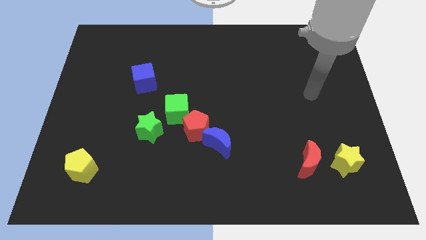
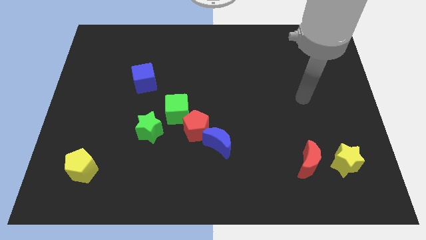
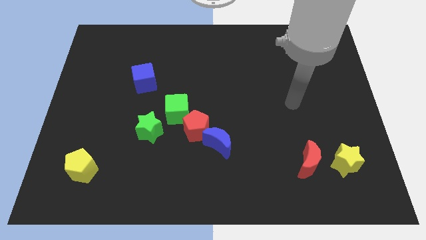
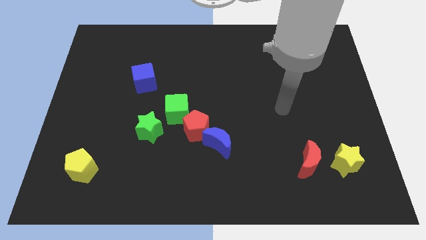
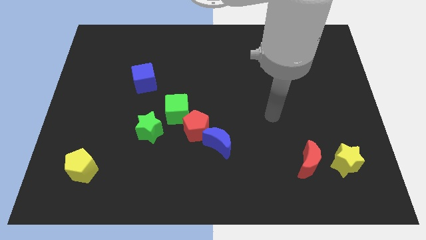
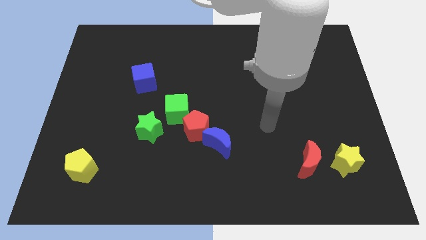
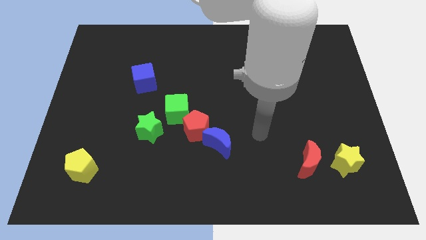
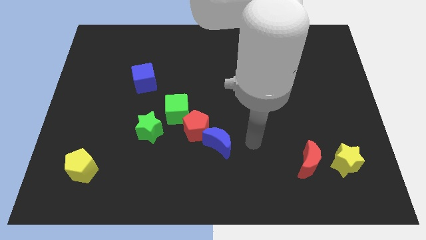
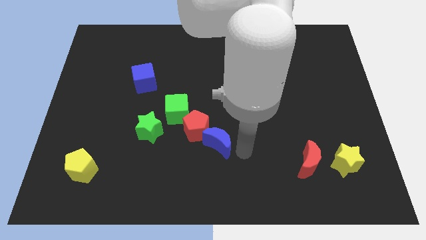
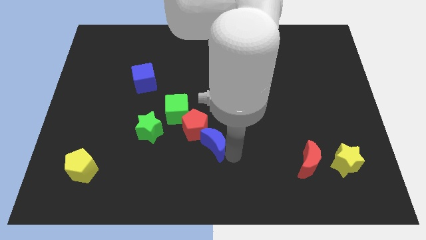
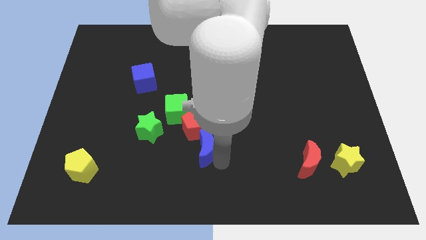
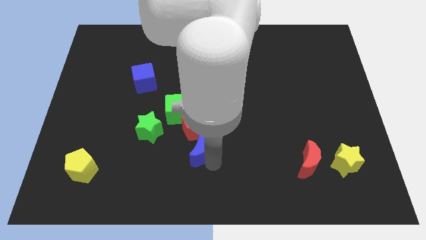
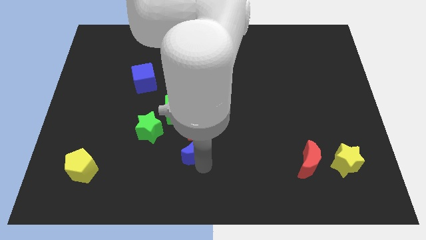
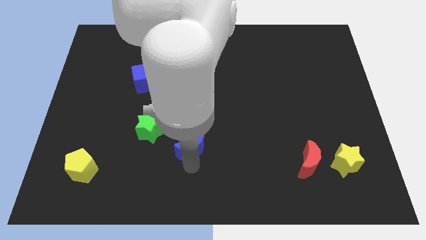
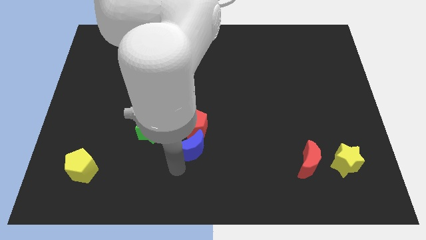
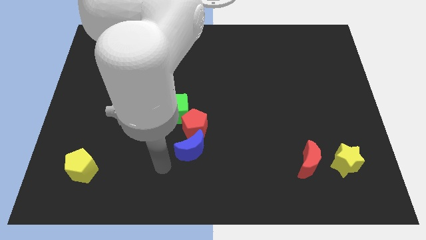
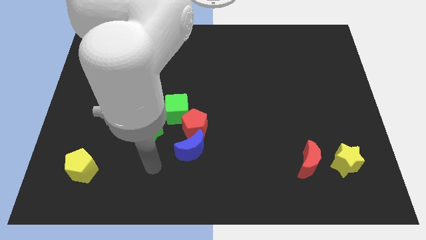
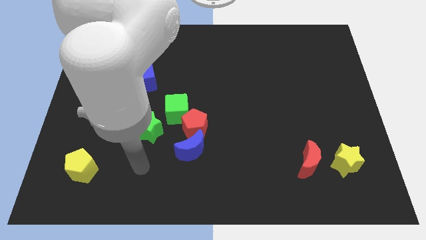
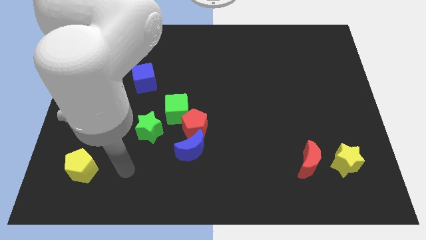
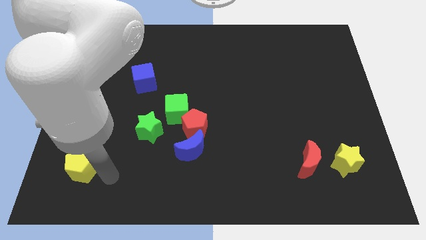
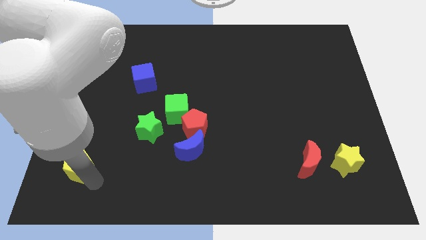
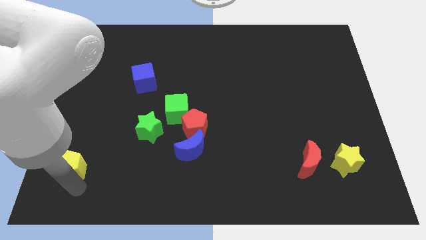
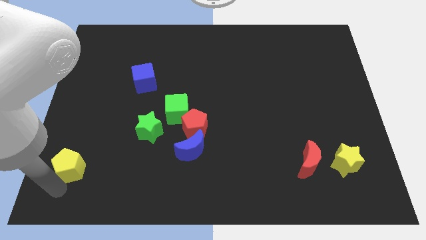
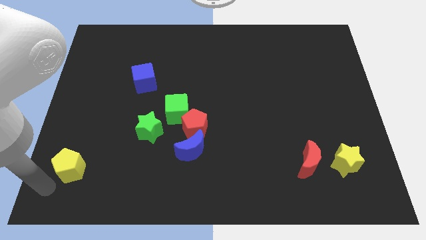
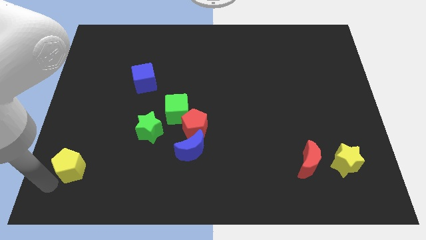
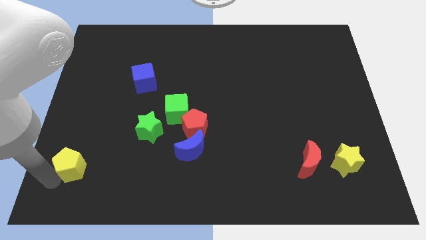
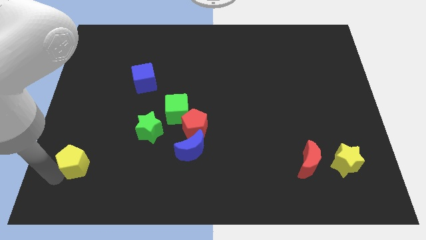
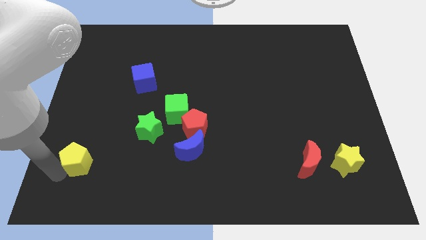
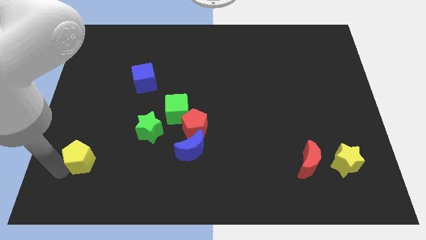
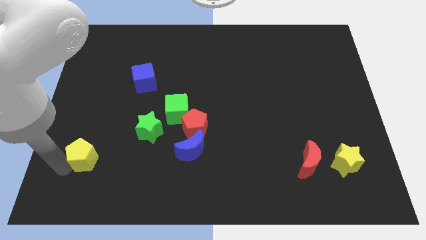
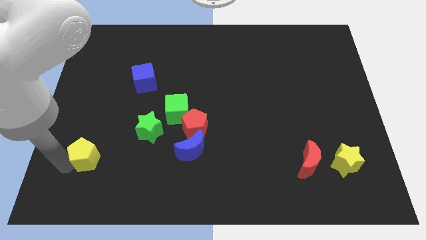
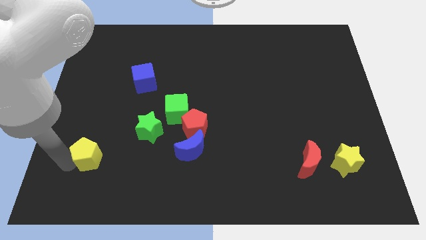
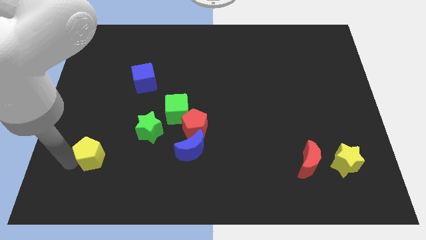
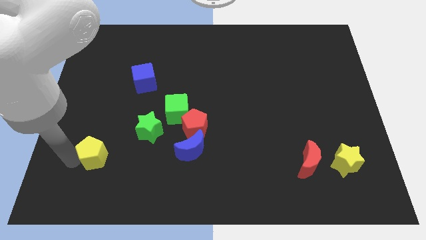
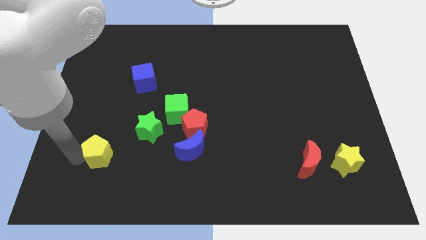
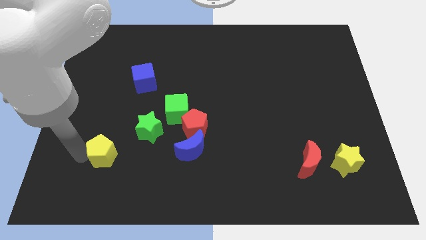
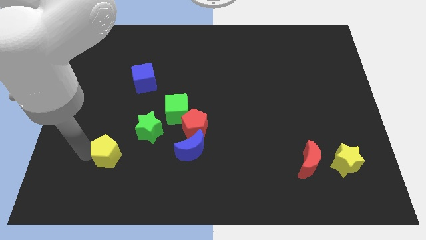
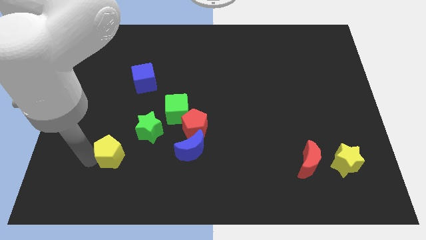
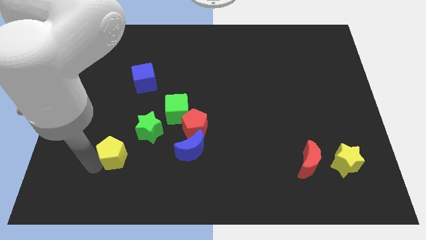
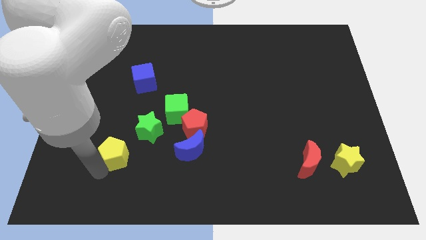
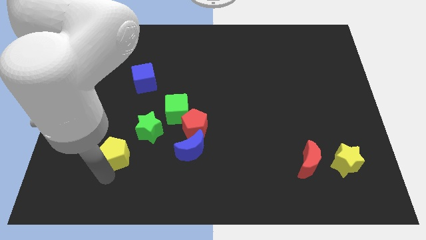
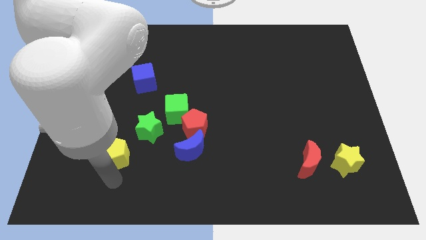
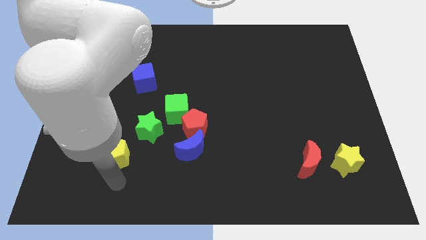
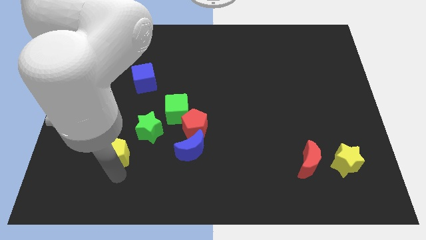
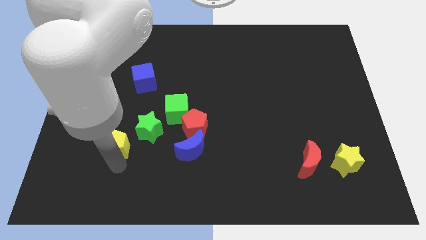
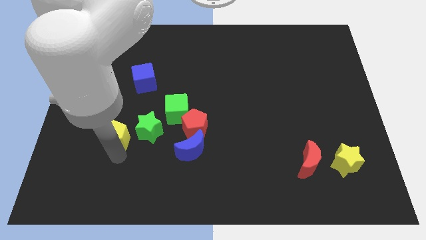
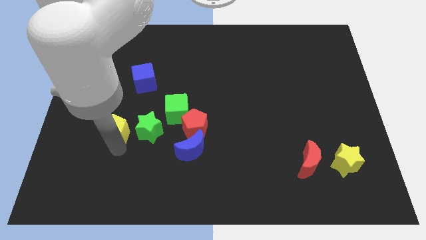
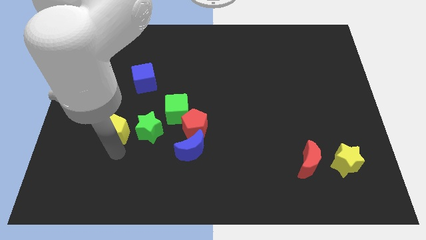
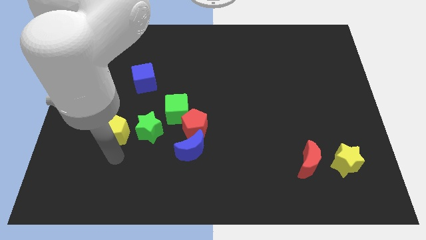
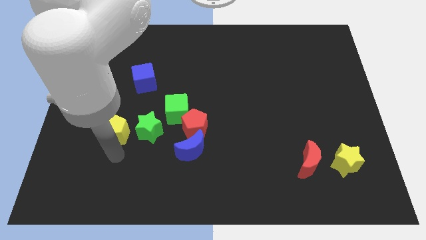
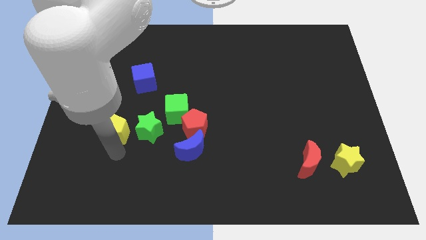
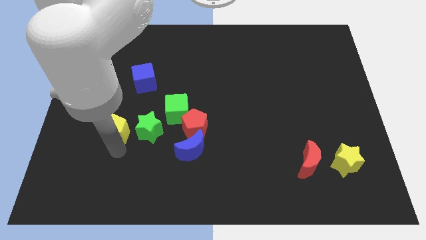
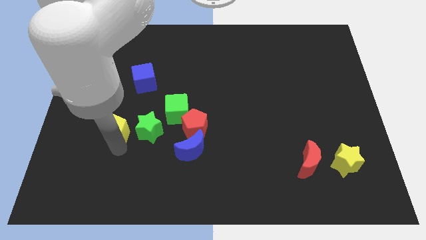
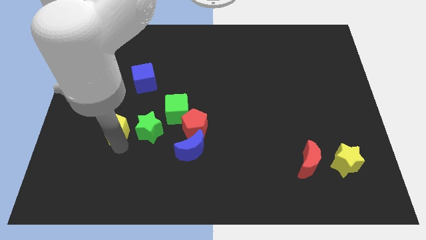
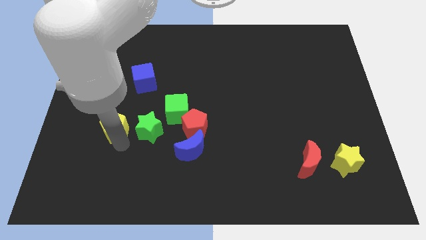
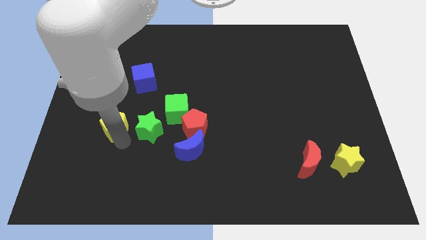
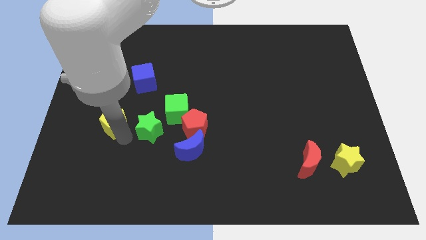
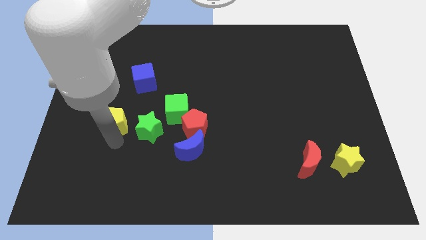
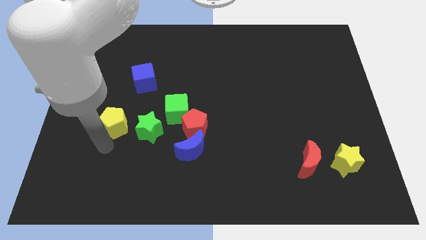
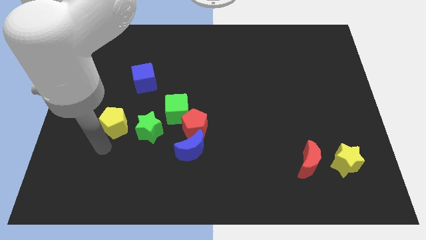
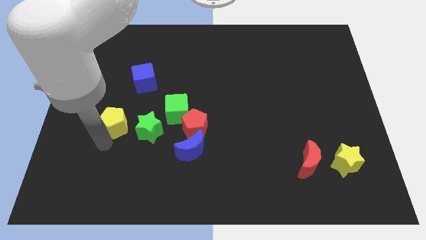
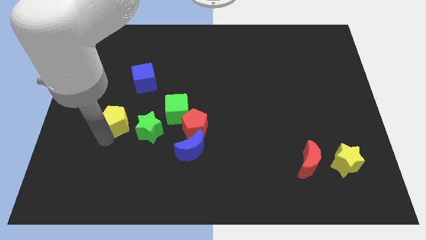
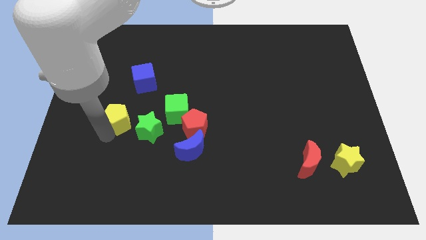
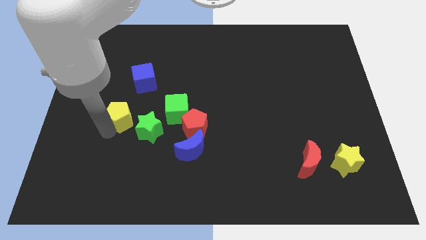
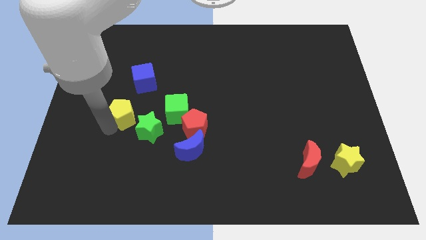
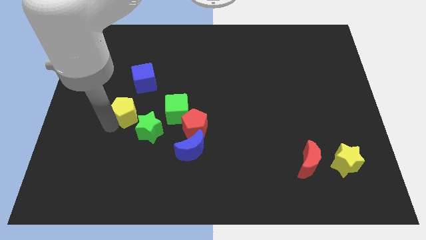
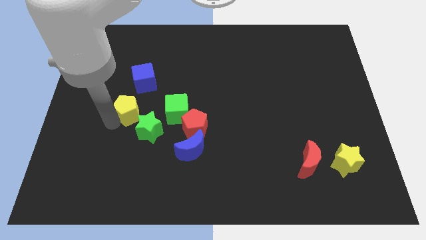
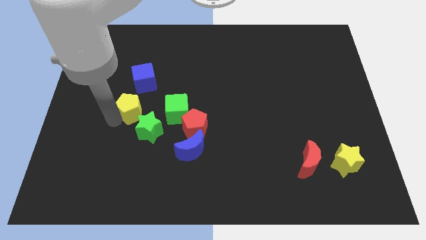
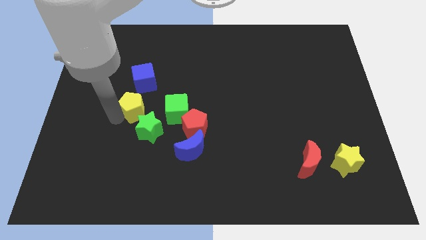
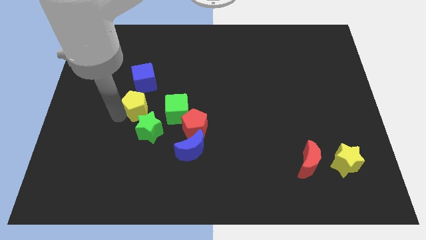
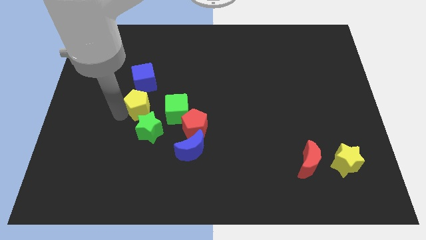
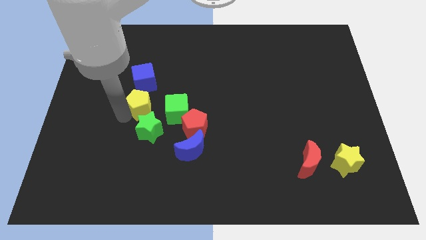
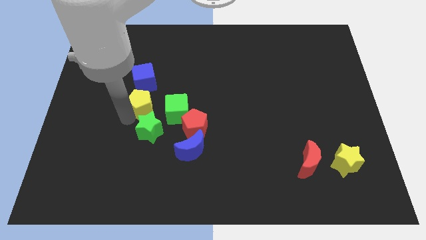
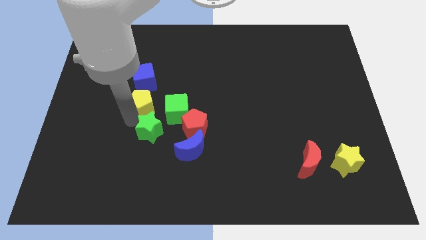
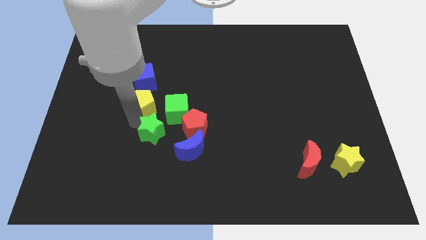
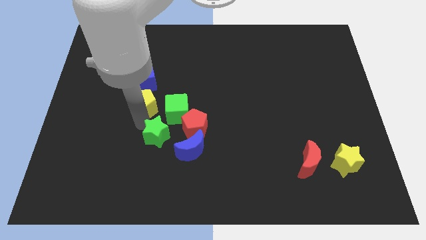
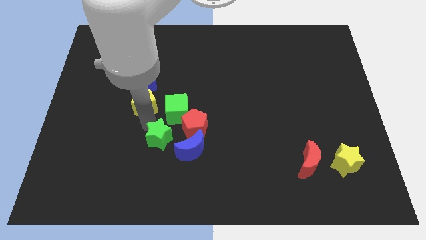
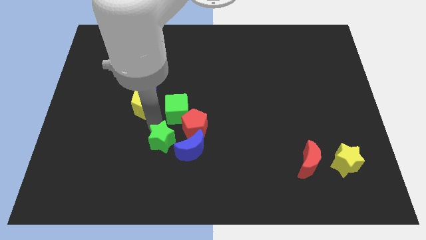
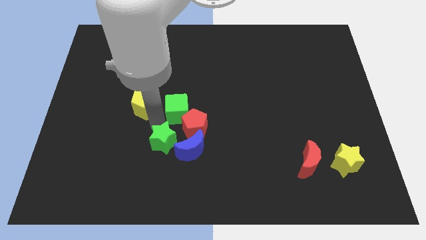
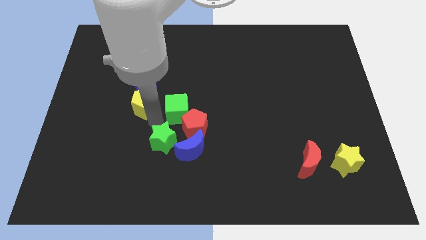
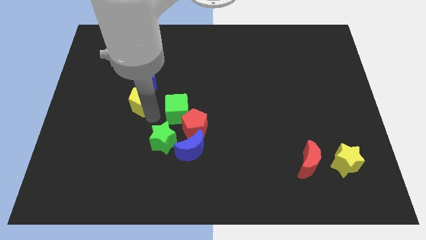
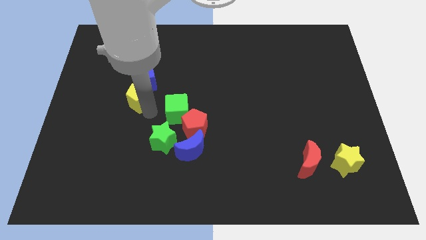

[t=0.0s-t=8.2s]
slide the yellow pentagon towards the blue cube
